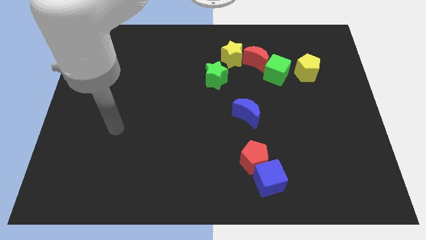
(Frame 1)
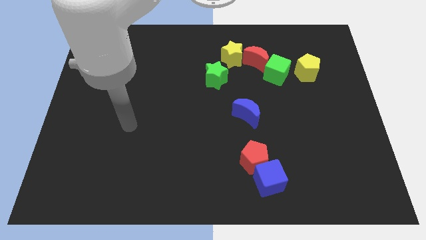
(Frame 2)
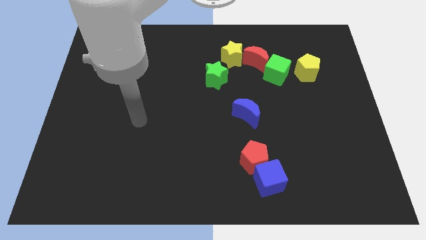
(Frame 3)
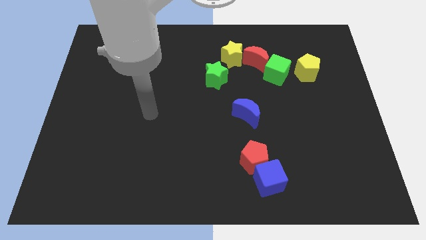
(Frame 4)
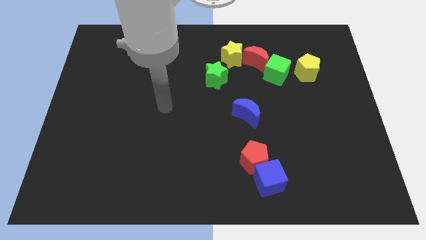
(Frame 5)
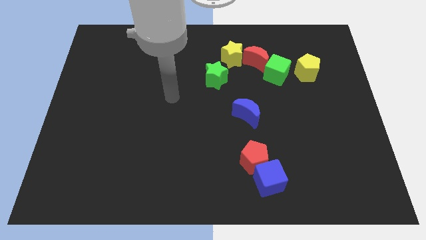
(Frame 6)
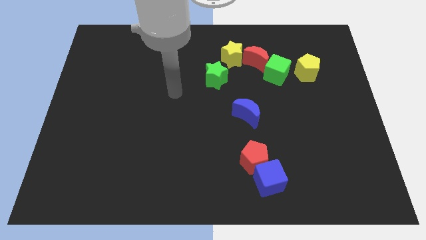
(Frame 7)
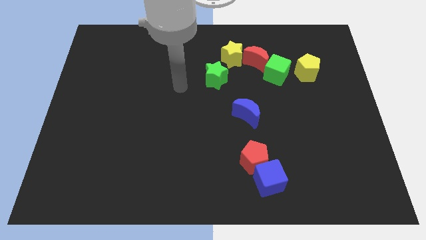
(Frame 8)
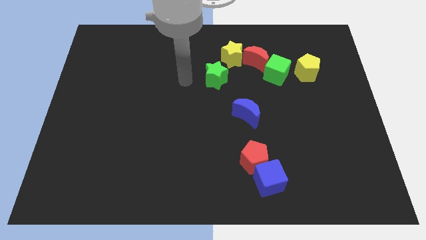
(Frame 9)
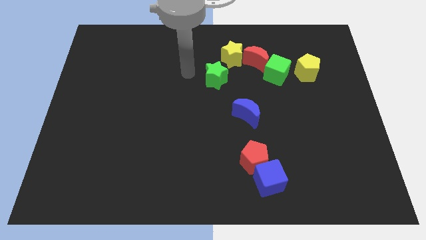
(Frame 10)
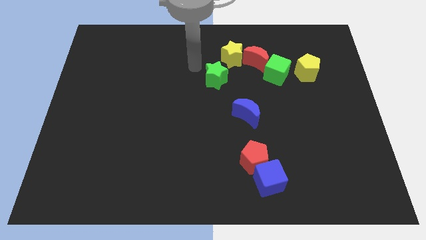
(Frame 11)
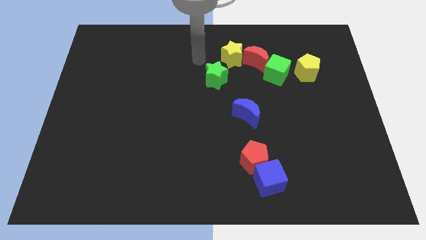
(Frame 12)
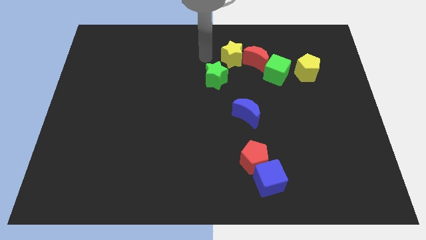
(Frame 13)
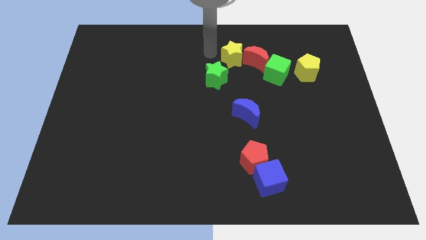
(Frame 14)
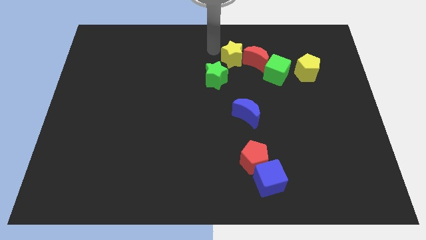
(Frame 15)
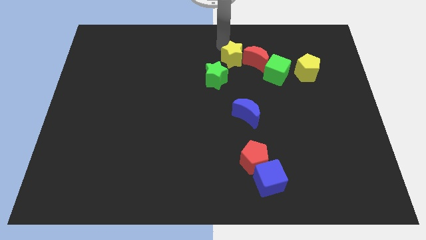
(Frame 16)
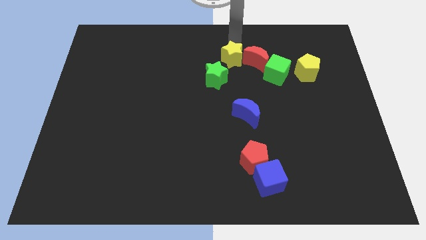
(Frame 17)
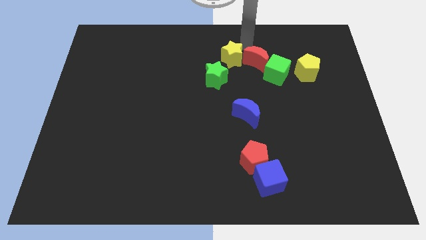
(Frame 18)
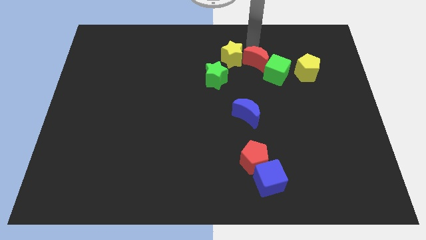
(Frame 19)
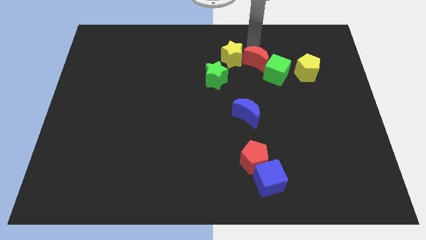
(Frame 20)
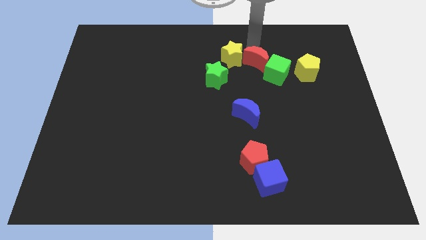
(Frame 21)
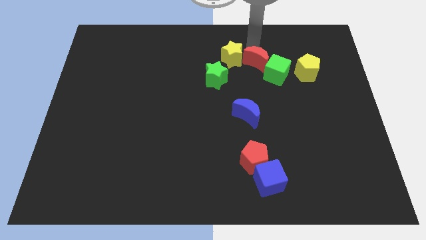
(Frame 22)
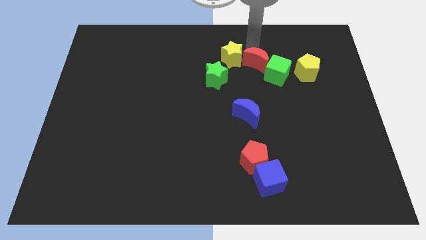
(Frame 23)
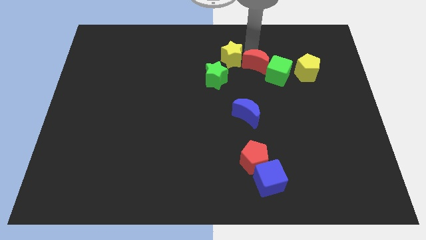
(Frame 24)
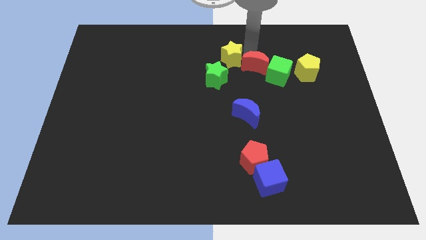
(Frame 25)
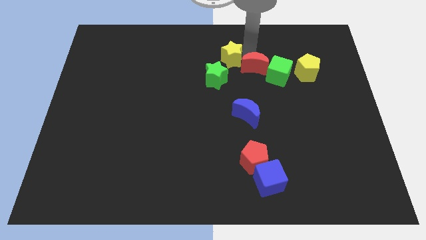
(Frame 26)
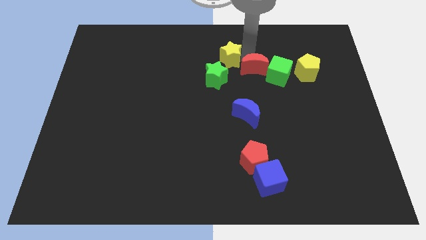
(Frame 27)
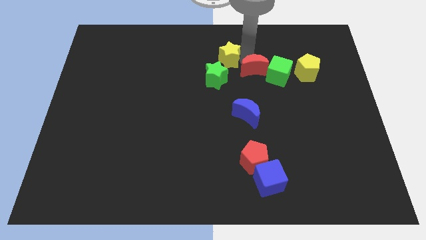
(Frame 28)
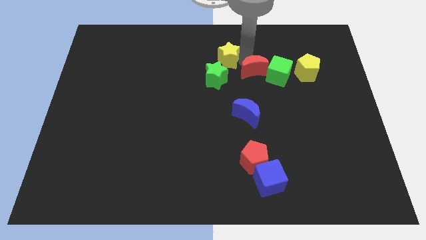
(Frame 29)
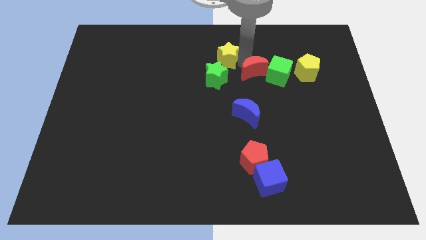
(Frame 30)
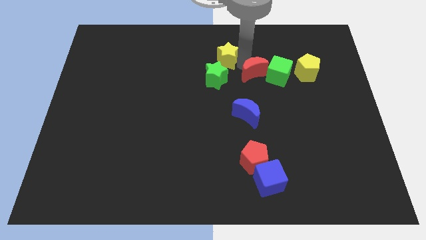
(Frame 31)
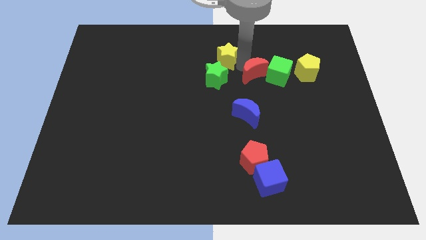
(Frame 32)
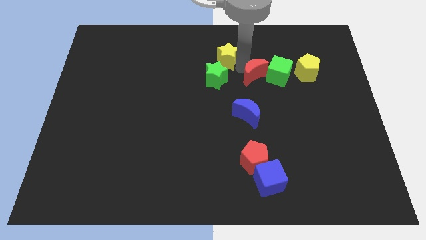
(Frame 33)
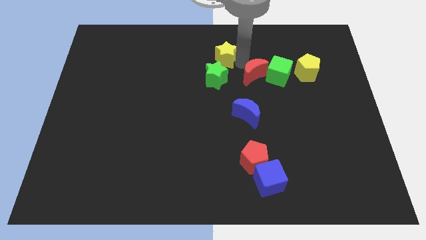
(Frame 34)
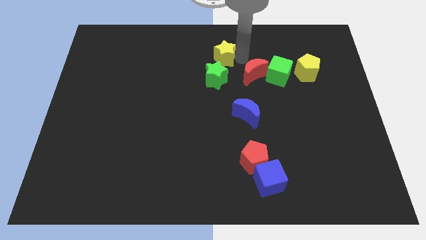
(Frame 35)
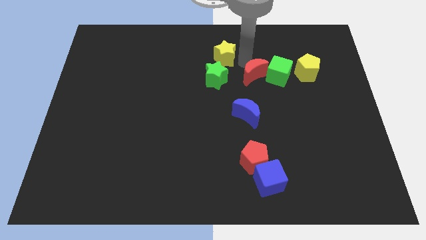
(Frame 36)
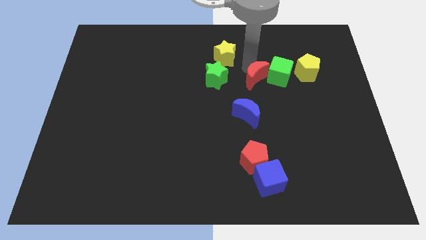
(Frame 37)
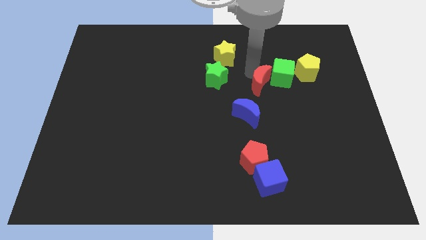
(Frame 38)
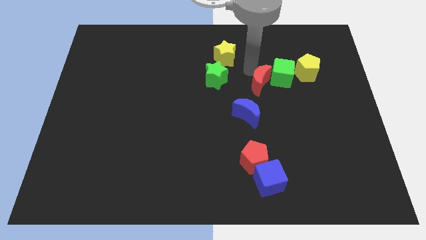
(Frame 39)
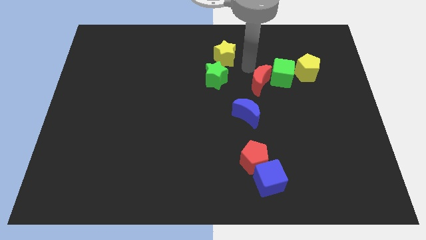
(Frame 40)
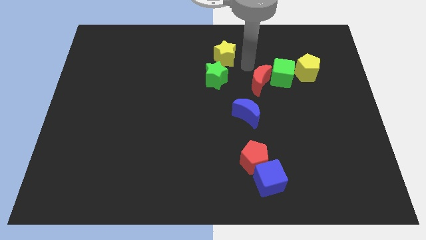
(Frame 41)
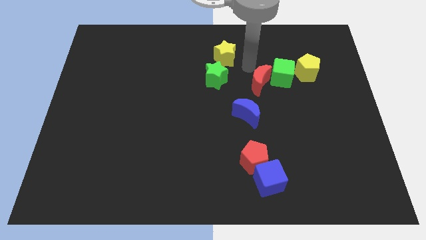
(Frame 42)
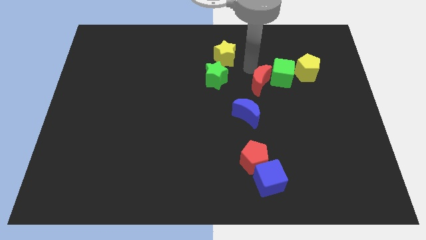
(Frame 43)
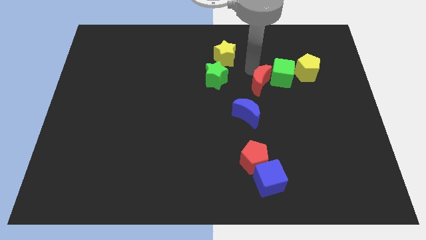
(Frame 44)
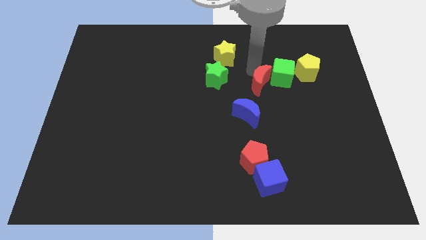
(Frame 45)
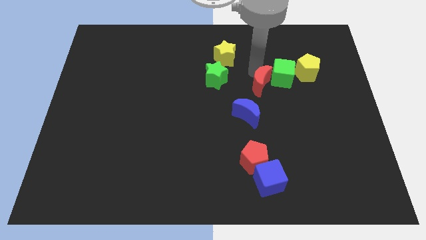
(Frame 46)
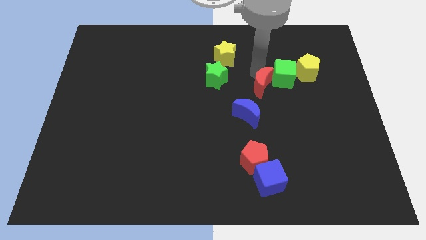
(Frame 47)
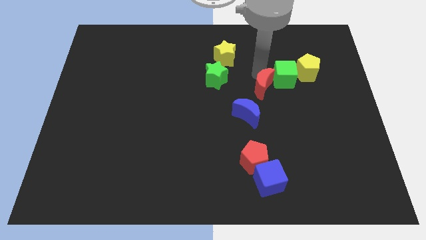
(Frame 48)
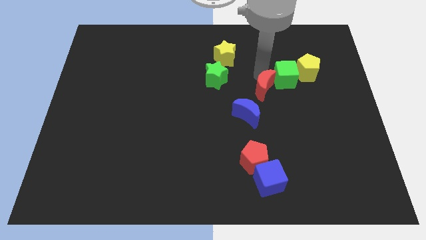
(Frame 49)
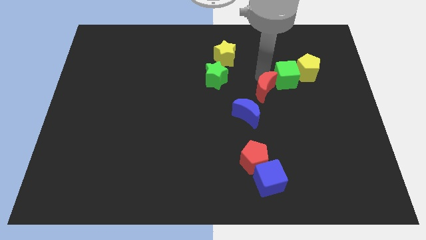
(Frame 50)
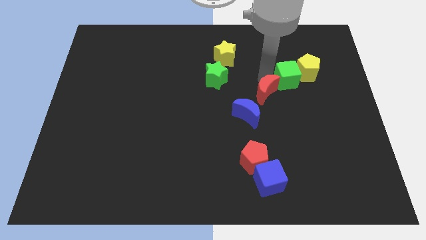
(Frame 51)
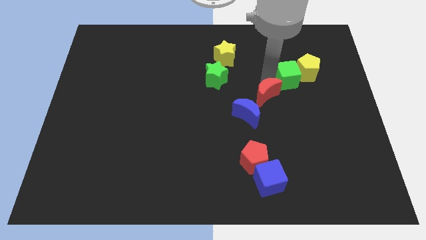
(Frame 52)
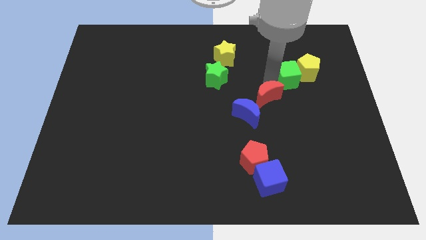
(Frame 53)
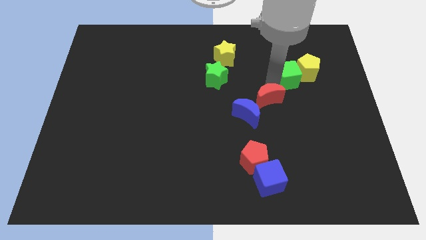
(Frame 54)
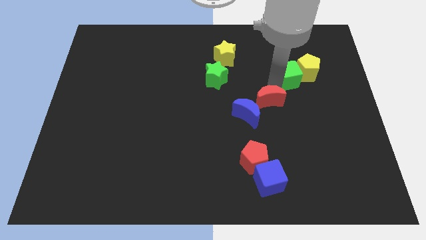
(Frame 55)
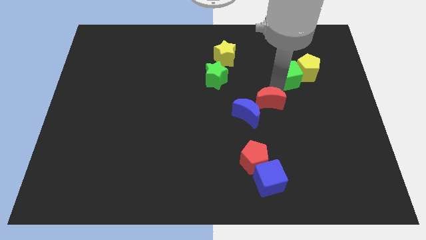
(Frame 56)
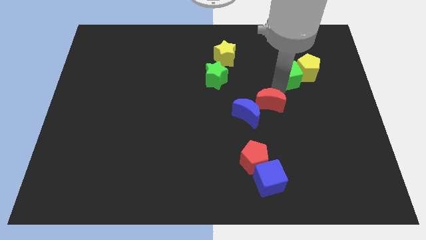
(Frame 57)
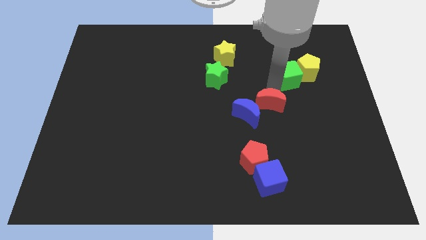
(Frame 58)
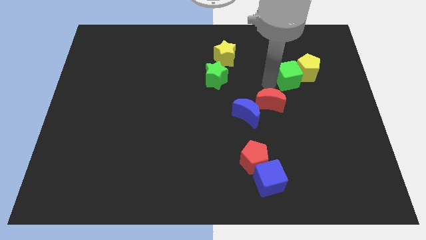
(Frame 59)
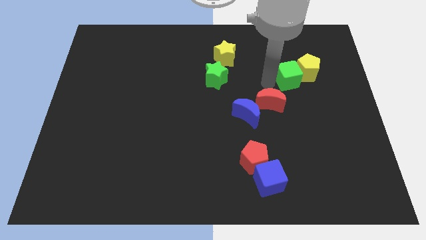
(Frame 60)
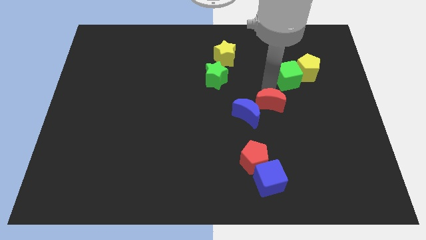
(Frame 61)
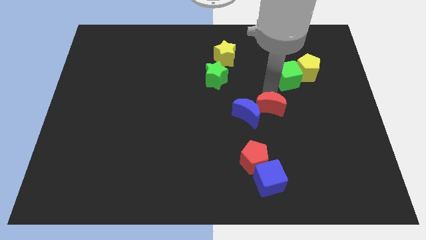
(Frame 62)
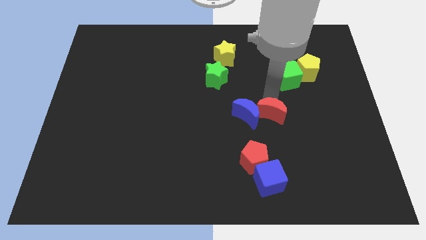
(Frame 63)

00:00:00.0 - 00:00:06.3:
put the red moon diagonally down and to the right of the blue moon

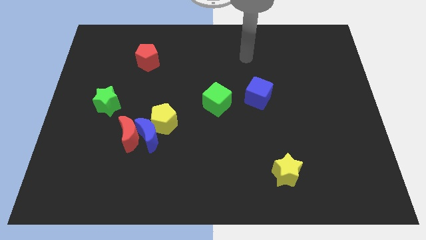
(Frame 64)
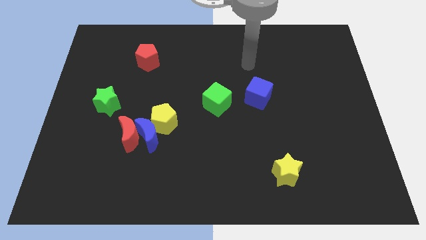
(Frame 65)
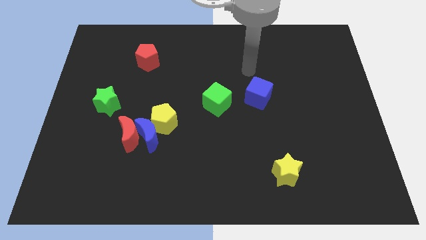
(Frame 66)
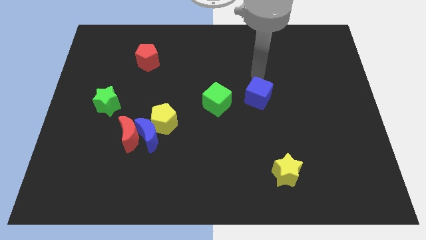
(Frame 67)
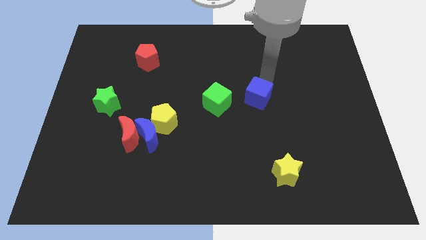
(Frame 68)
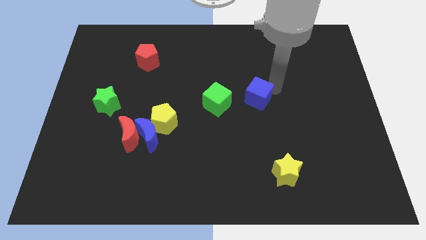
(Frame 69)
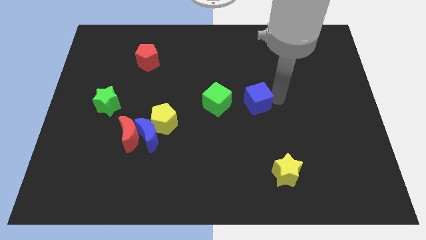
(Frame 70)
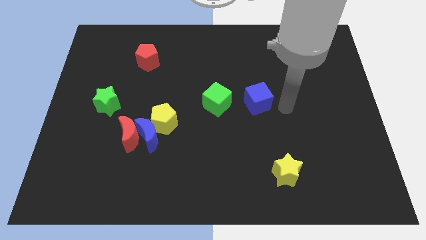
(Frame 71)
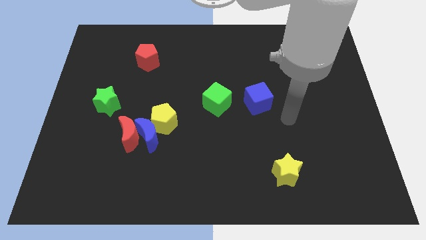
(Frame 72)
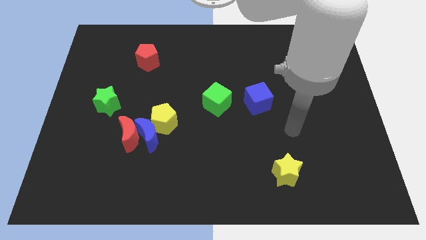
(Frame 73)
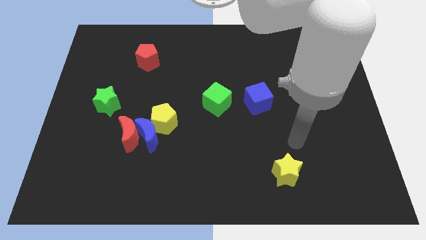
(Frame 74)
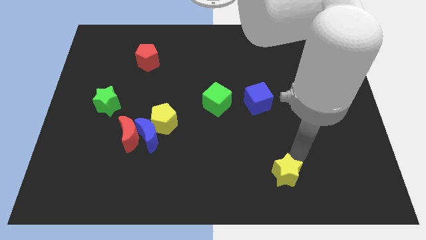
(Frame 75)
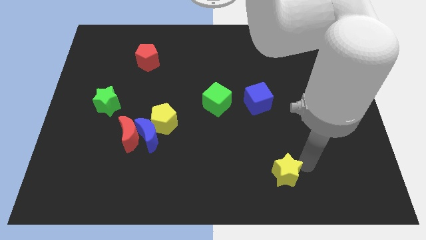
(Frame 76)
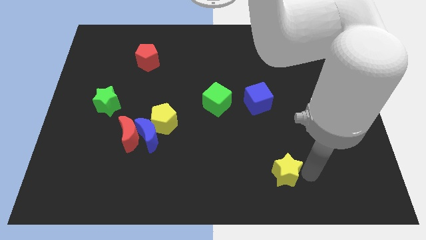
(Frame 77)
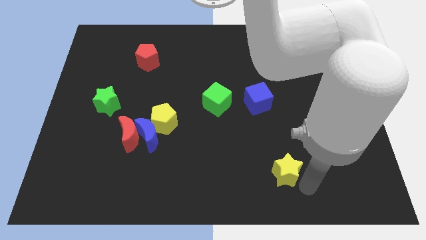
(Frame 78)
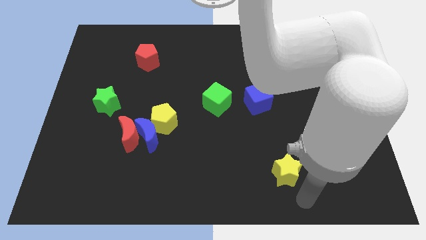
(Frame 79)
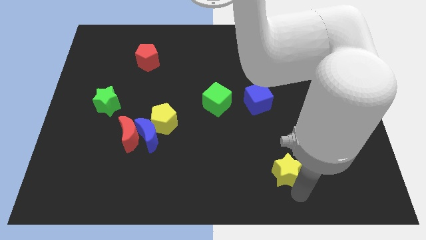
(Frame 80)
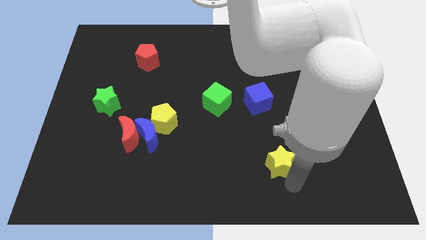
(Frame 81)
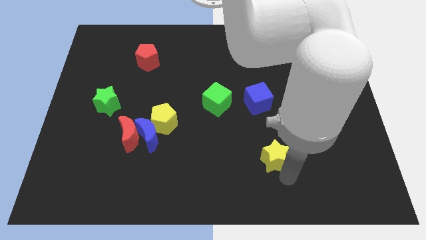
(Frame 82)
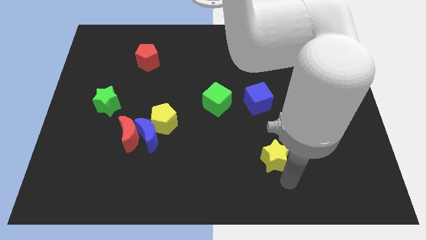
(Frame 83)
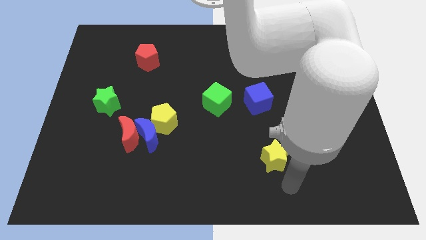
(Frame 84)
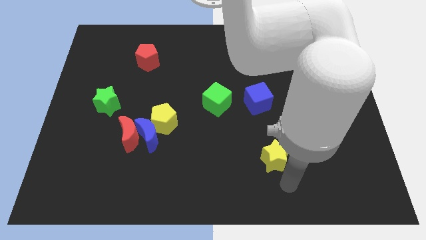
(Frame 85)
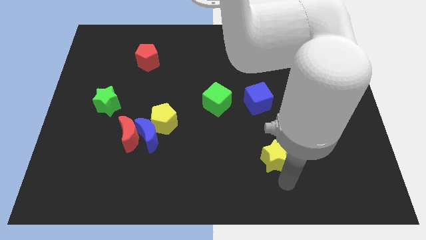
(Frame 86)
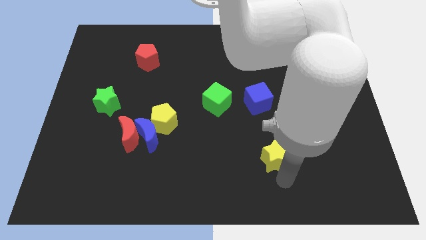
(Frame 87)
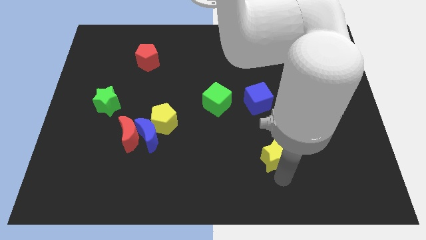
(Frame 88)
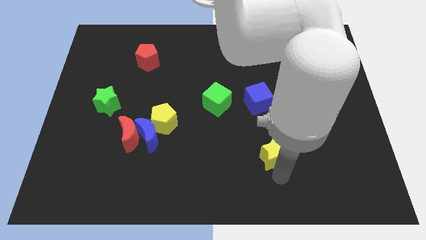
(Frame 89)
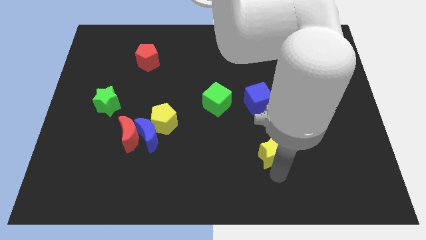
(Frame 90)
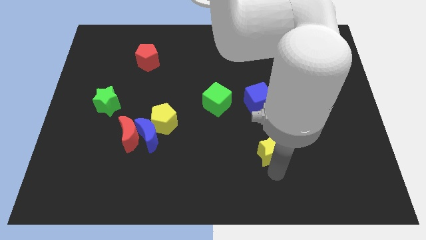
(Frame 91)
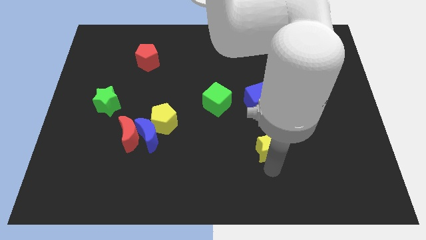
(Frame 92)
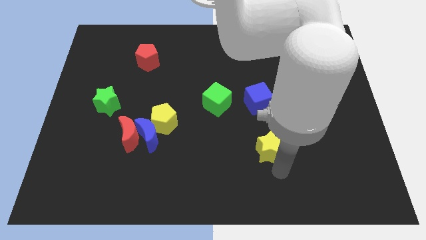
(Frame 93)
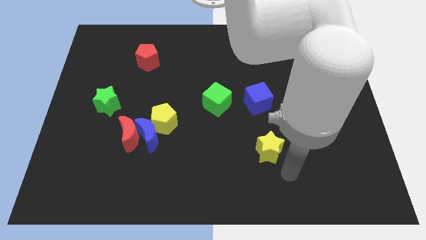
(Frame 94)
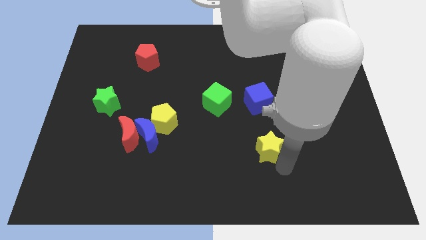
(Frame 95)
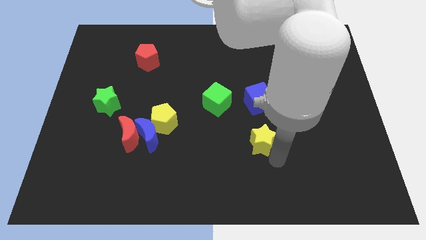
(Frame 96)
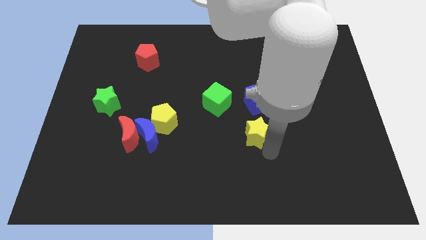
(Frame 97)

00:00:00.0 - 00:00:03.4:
put the yellow star diagonally down and to the right of the green cube
